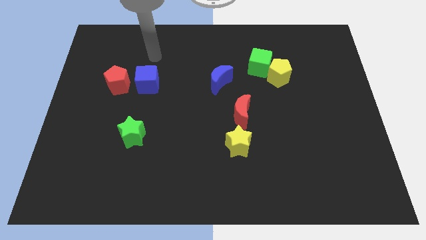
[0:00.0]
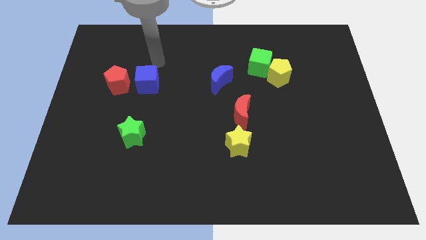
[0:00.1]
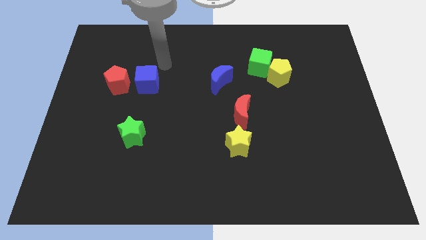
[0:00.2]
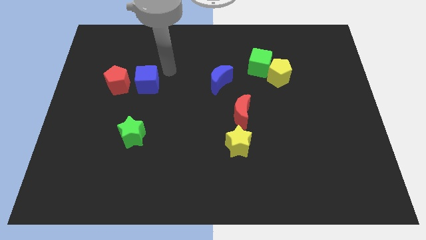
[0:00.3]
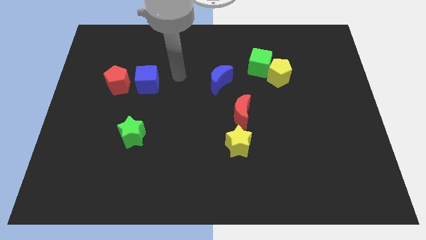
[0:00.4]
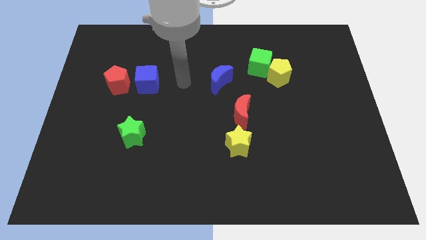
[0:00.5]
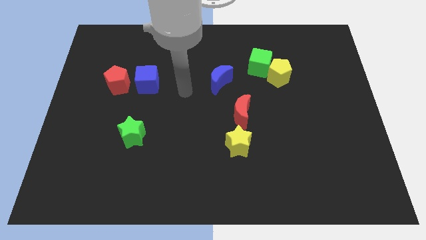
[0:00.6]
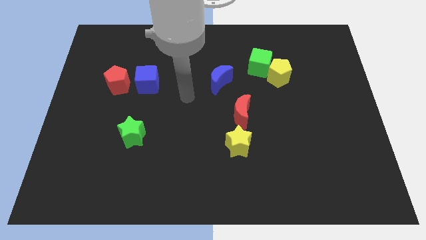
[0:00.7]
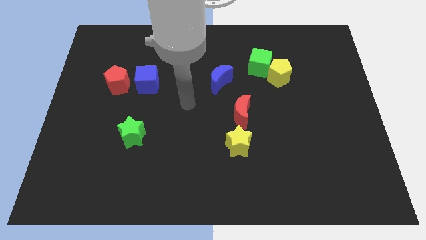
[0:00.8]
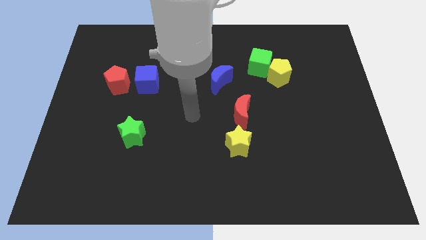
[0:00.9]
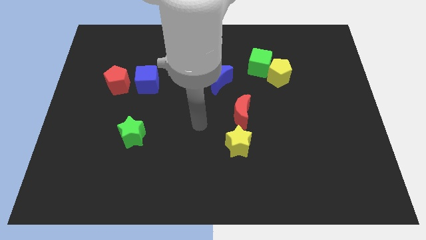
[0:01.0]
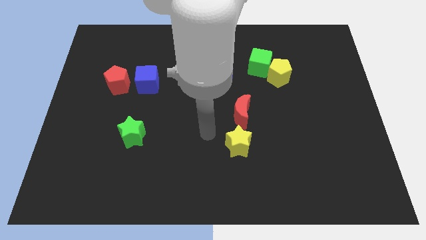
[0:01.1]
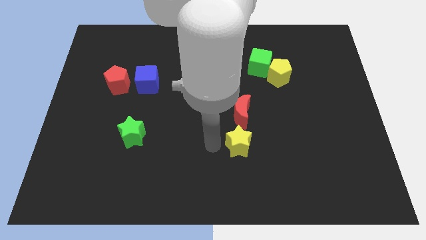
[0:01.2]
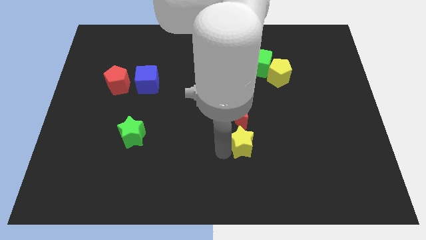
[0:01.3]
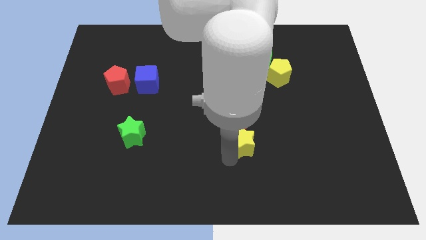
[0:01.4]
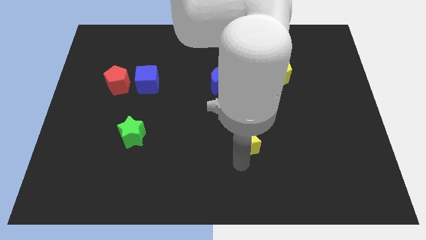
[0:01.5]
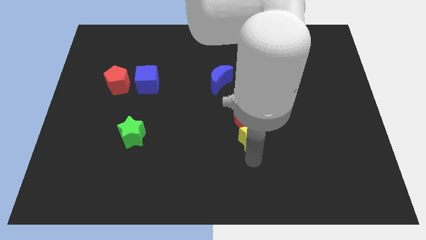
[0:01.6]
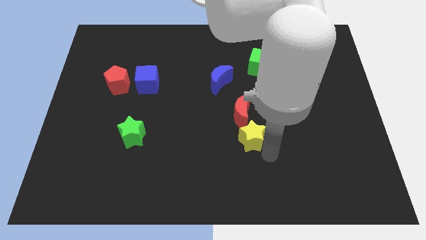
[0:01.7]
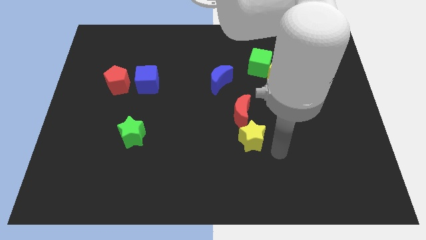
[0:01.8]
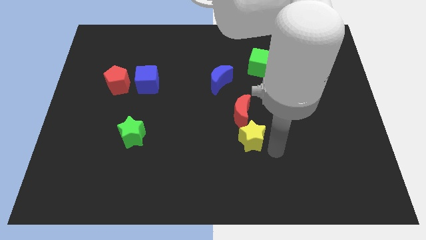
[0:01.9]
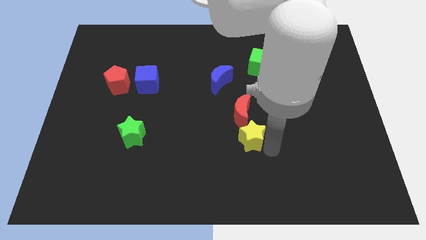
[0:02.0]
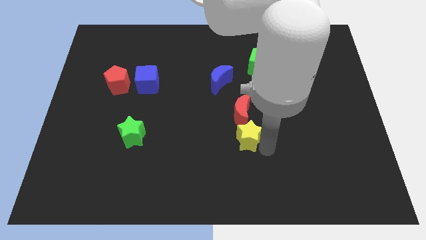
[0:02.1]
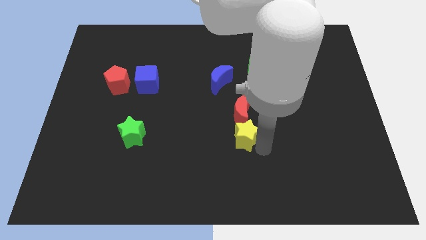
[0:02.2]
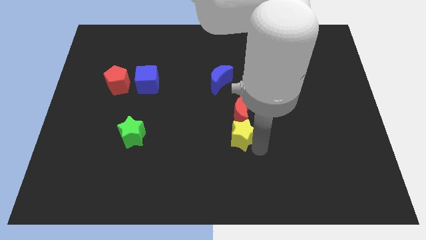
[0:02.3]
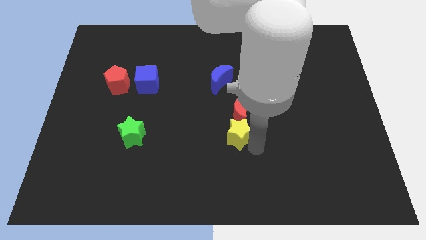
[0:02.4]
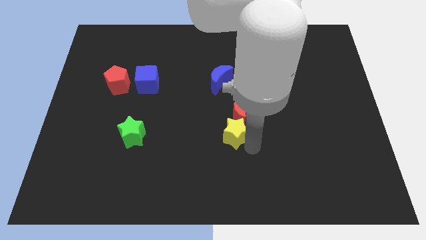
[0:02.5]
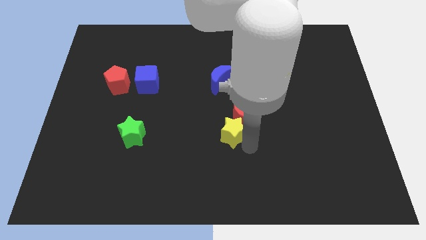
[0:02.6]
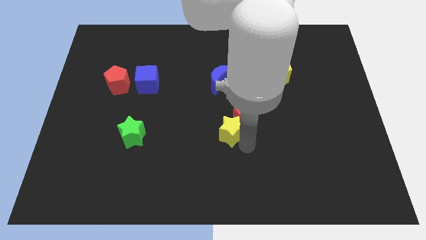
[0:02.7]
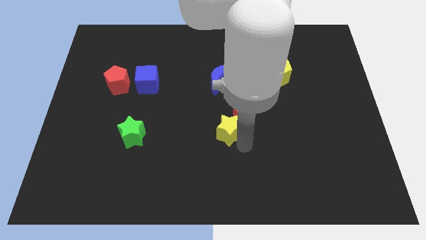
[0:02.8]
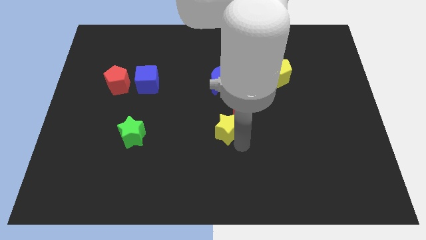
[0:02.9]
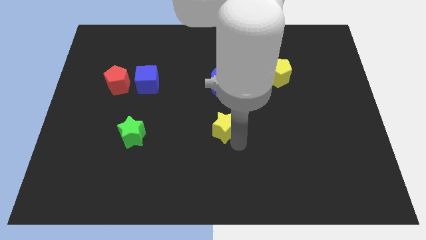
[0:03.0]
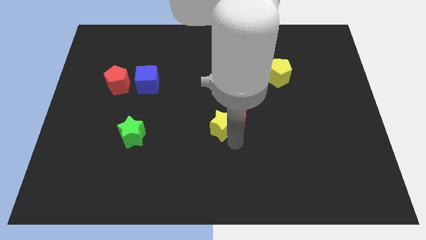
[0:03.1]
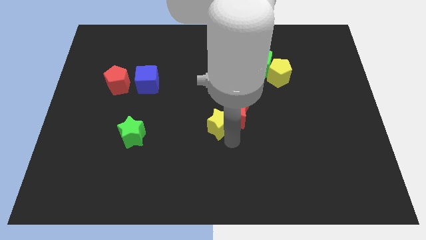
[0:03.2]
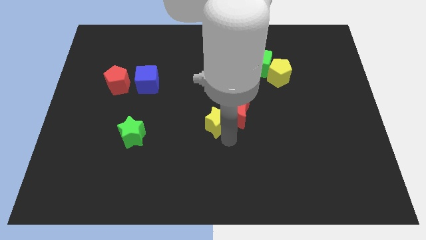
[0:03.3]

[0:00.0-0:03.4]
move the yellow star diagonally up and to the left a little bit

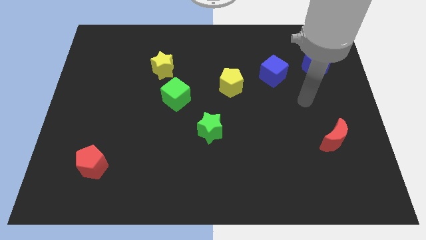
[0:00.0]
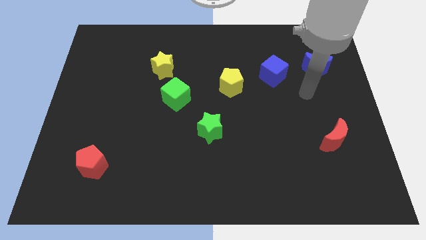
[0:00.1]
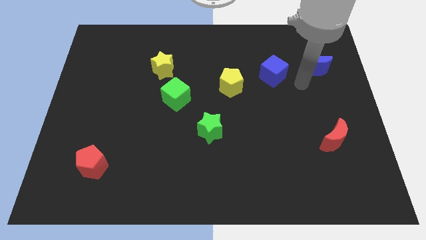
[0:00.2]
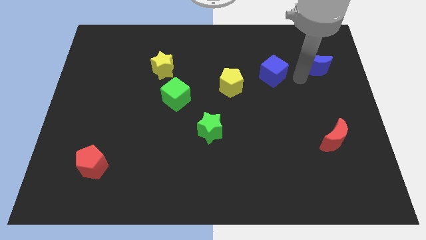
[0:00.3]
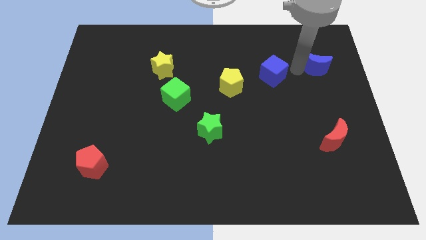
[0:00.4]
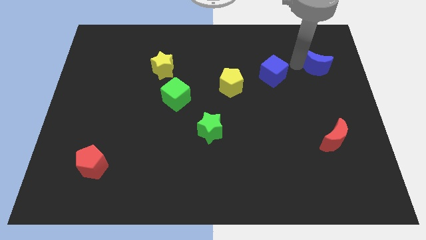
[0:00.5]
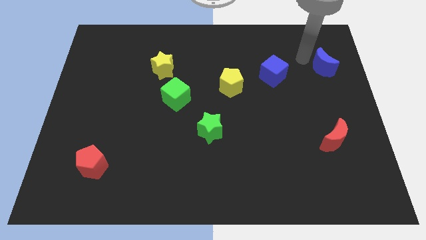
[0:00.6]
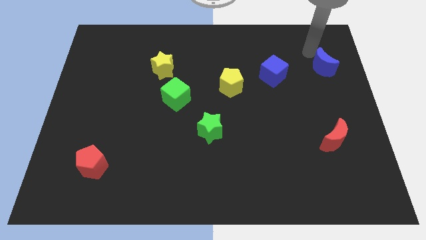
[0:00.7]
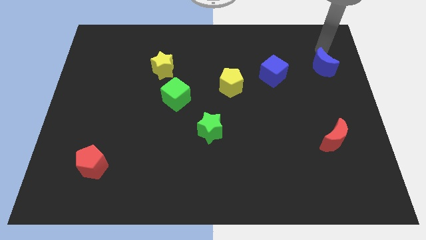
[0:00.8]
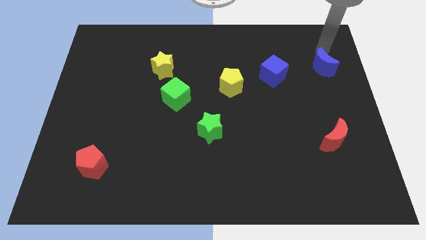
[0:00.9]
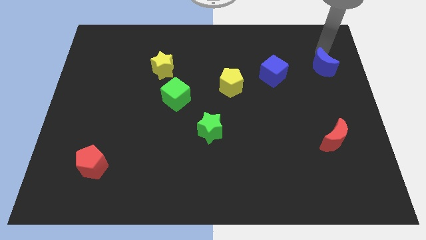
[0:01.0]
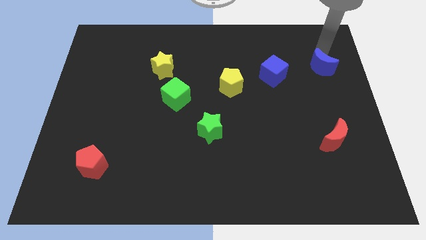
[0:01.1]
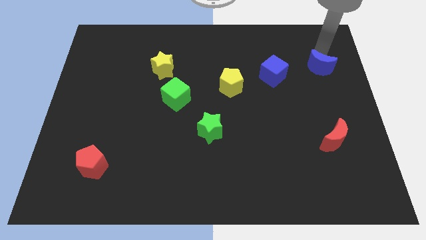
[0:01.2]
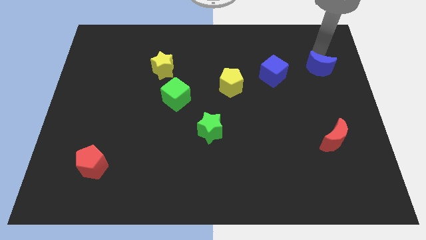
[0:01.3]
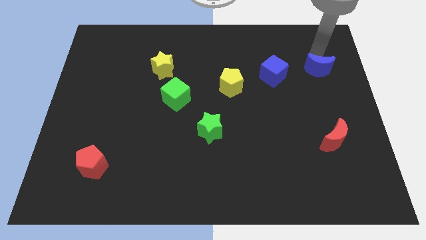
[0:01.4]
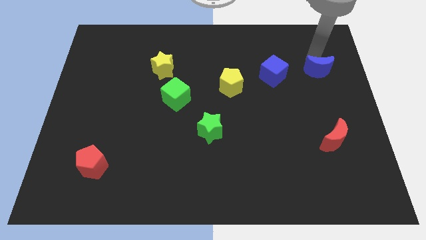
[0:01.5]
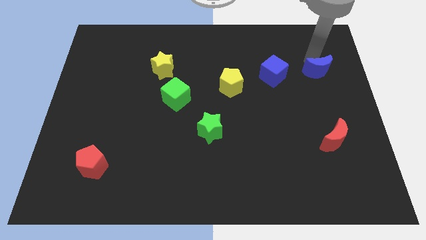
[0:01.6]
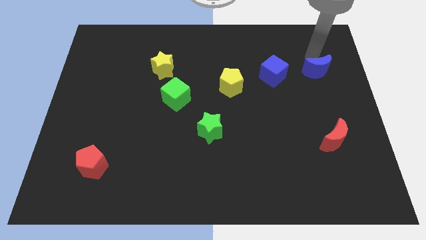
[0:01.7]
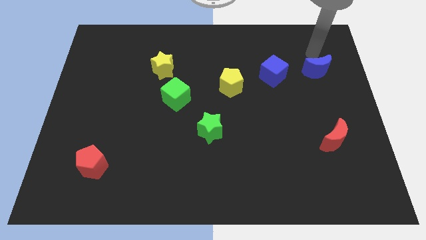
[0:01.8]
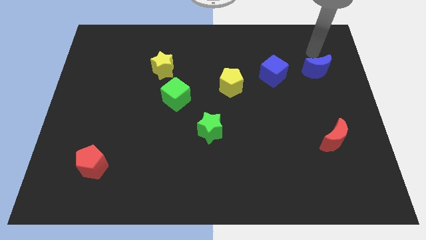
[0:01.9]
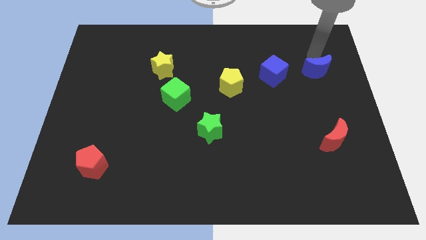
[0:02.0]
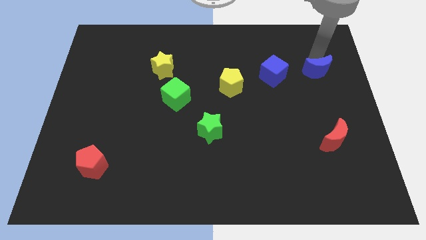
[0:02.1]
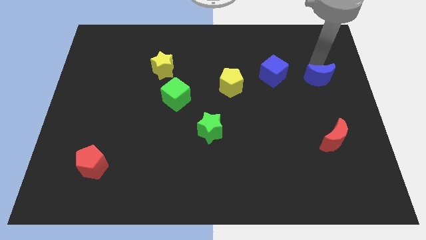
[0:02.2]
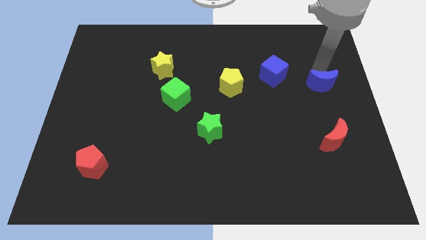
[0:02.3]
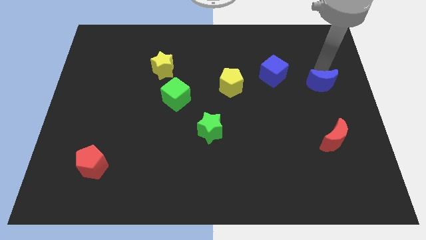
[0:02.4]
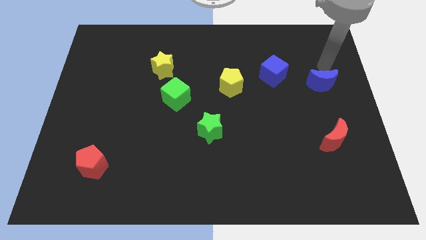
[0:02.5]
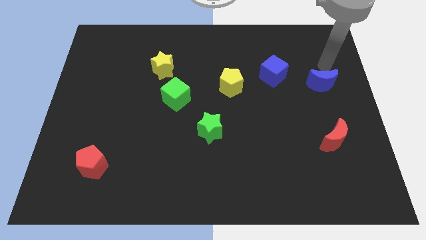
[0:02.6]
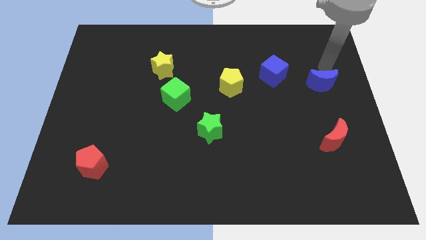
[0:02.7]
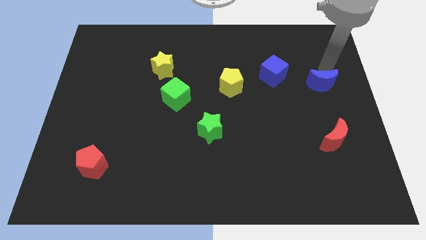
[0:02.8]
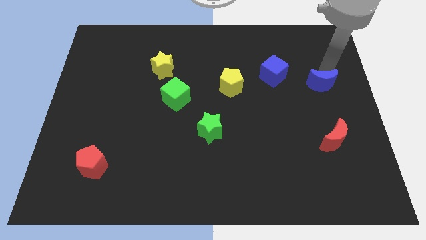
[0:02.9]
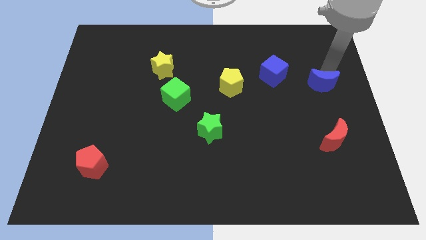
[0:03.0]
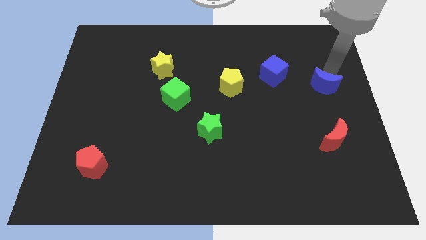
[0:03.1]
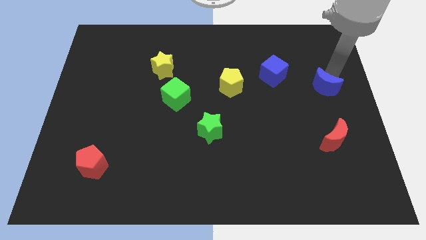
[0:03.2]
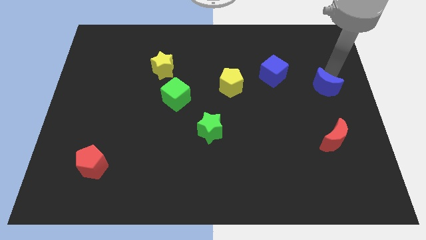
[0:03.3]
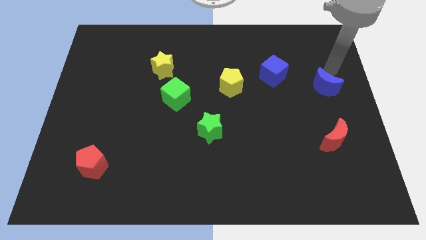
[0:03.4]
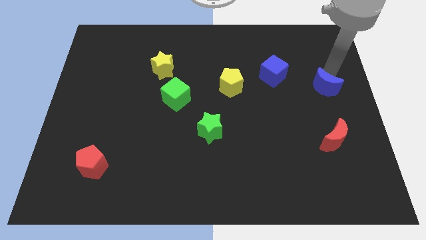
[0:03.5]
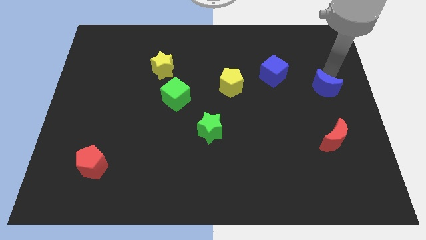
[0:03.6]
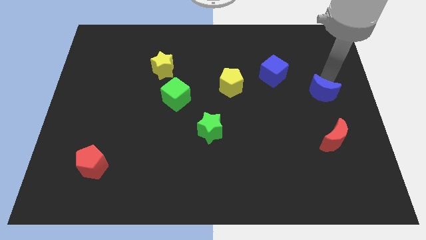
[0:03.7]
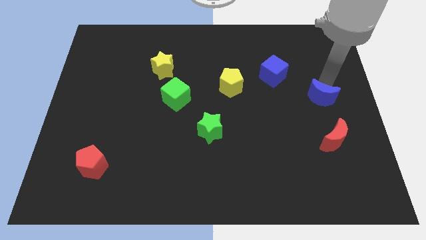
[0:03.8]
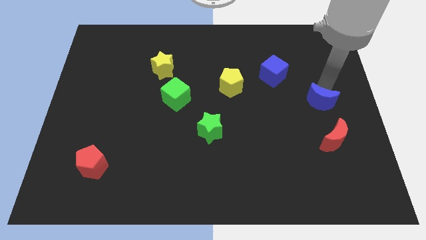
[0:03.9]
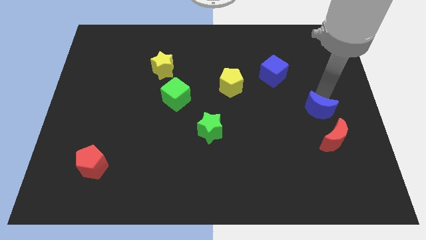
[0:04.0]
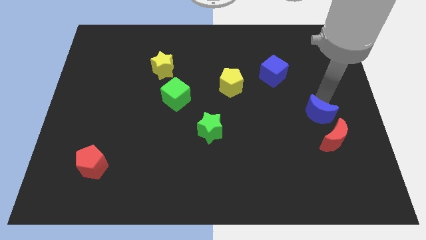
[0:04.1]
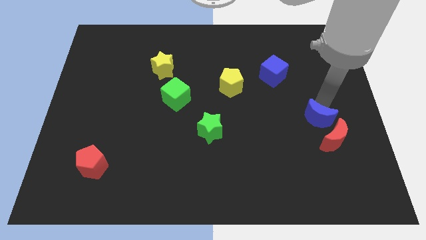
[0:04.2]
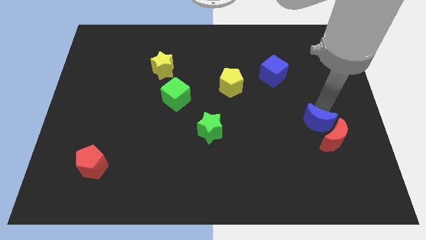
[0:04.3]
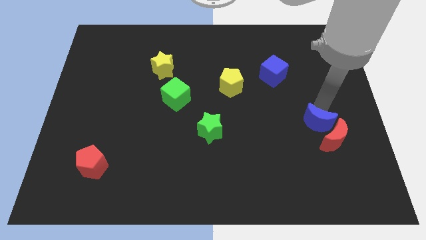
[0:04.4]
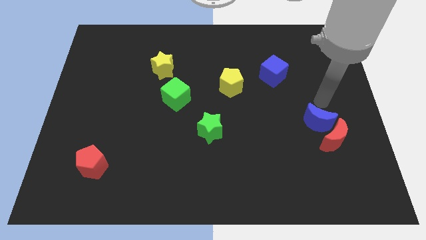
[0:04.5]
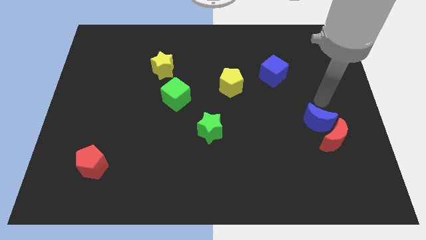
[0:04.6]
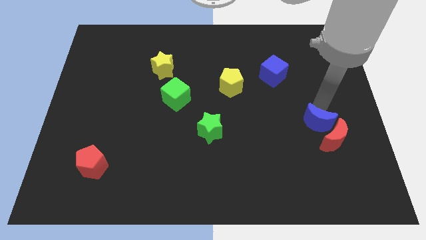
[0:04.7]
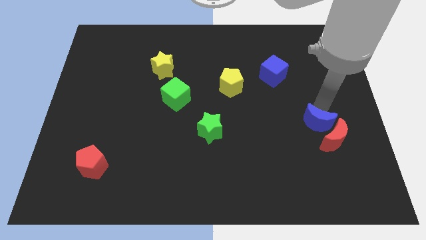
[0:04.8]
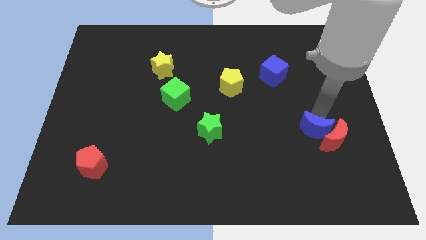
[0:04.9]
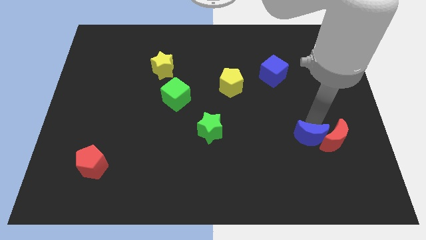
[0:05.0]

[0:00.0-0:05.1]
move the blue moon downwards
